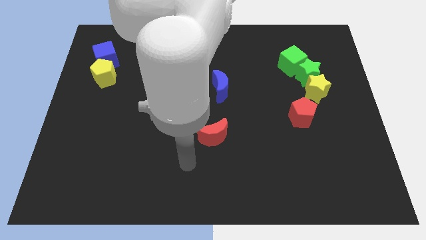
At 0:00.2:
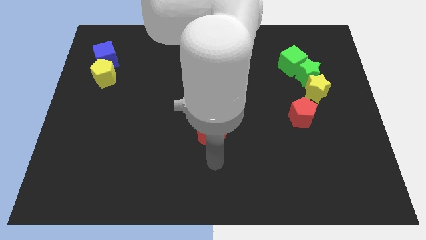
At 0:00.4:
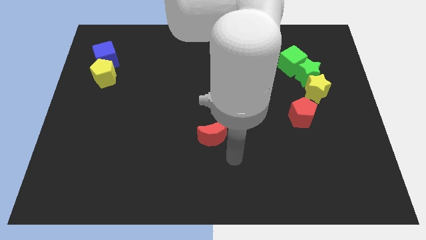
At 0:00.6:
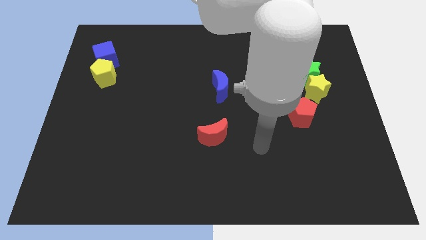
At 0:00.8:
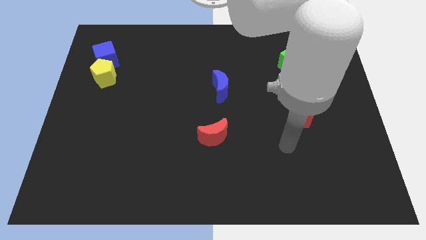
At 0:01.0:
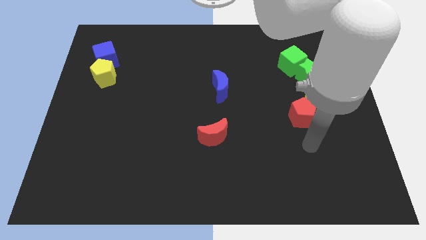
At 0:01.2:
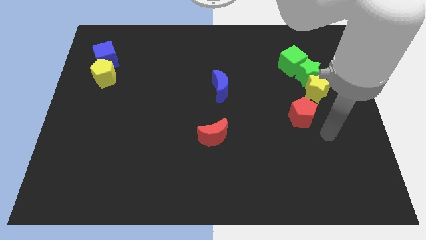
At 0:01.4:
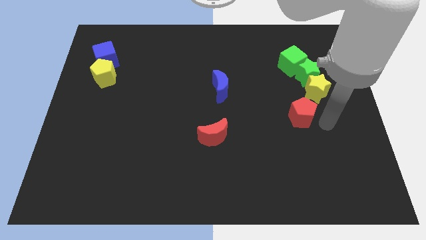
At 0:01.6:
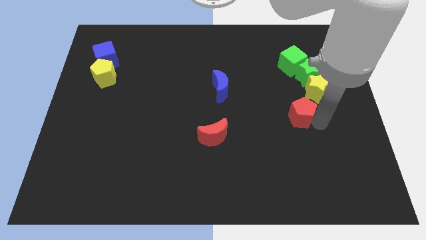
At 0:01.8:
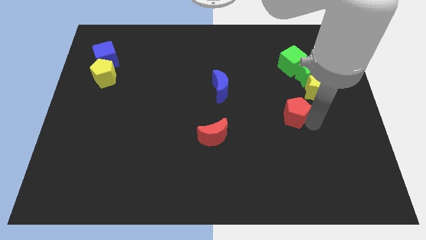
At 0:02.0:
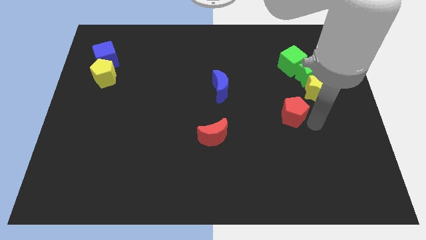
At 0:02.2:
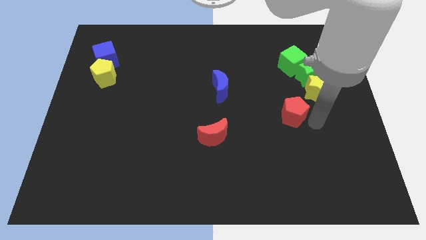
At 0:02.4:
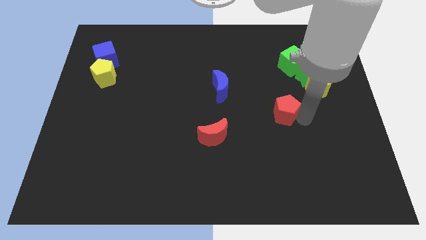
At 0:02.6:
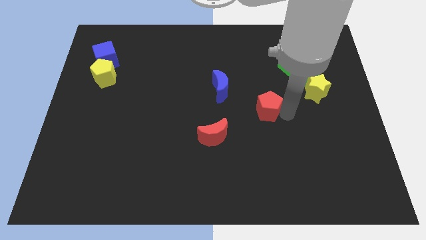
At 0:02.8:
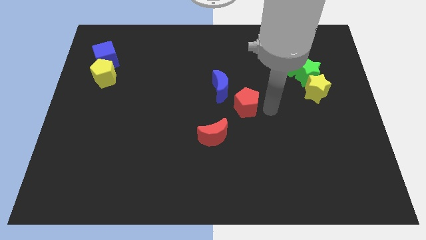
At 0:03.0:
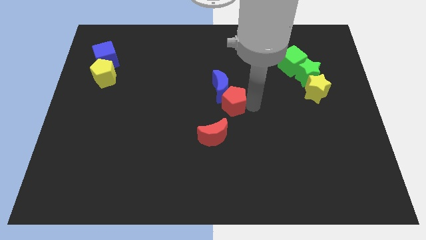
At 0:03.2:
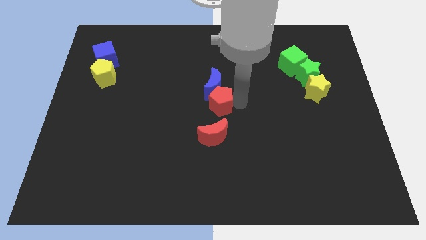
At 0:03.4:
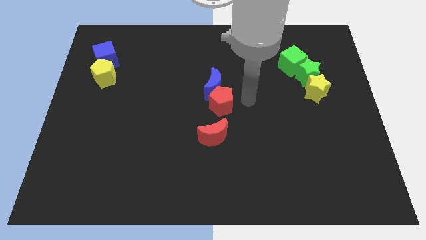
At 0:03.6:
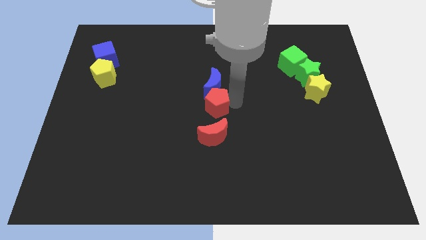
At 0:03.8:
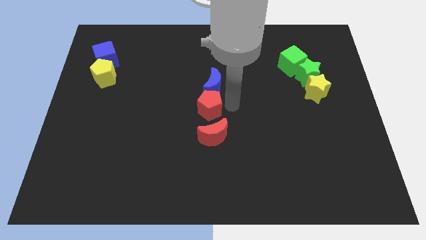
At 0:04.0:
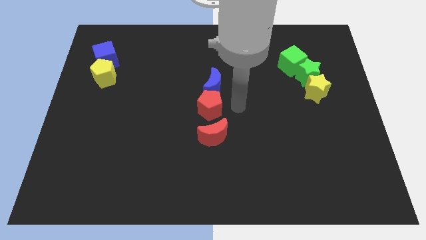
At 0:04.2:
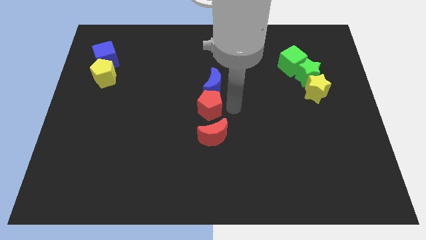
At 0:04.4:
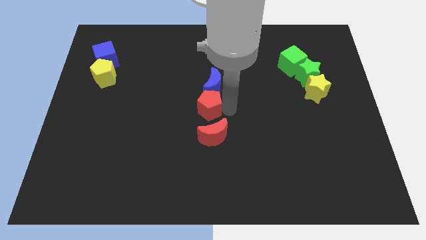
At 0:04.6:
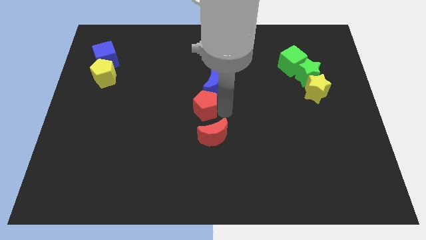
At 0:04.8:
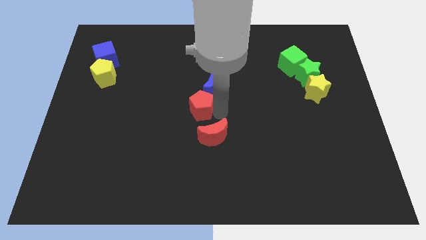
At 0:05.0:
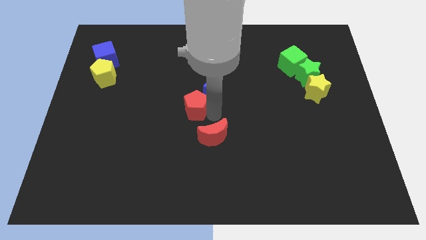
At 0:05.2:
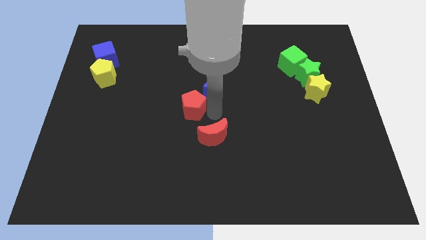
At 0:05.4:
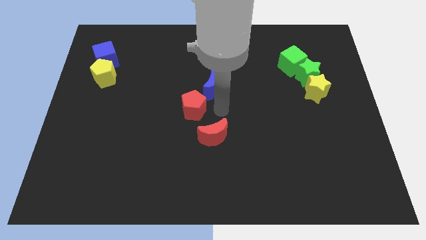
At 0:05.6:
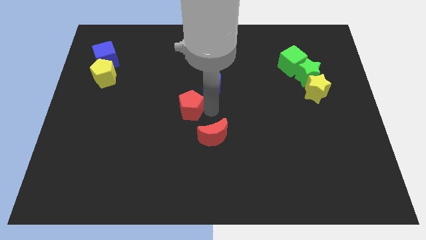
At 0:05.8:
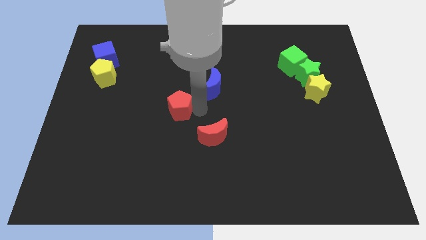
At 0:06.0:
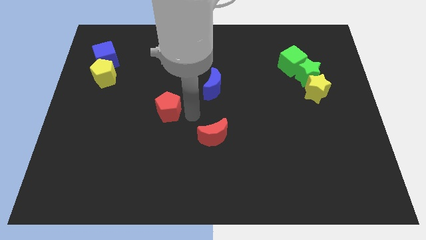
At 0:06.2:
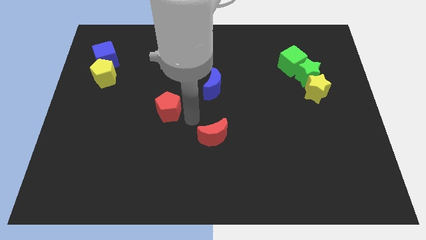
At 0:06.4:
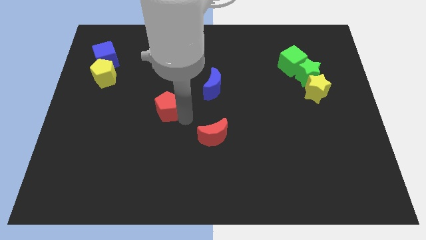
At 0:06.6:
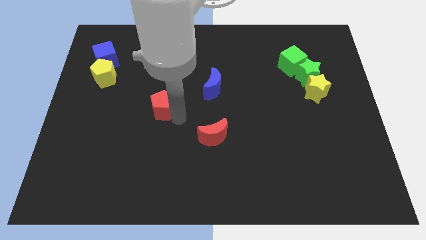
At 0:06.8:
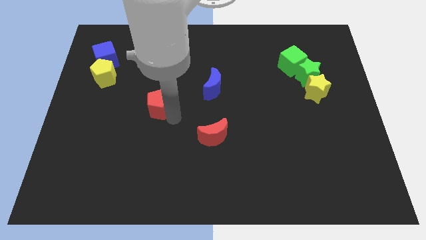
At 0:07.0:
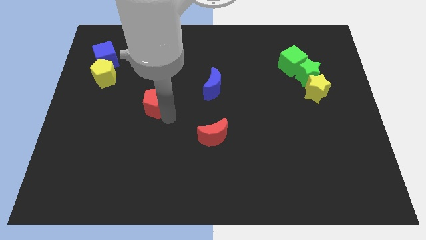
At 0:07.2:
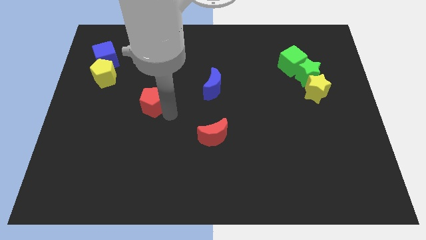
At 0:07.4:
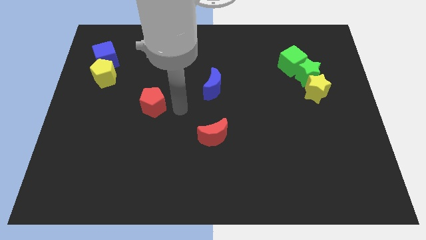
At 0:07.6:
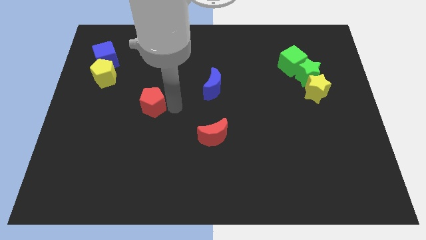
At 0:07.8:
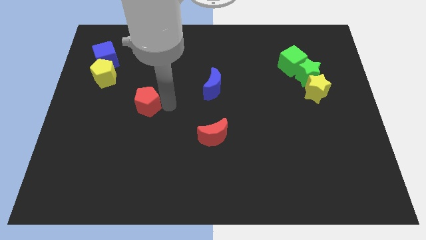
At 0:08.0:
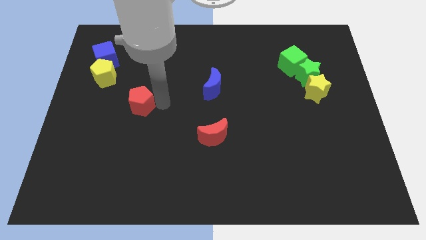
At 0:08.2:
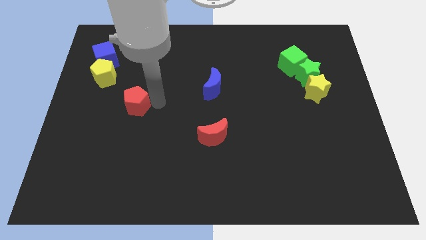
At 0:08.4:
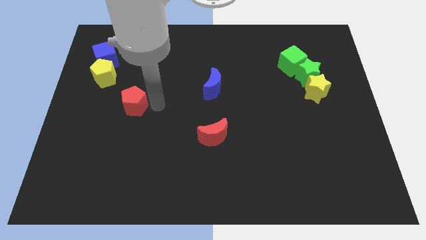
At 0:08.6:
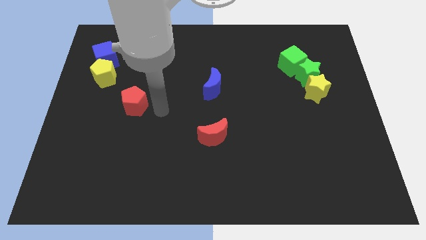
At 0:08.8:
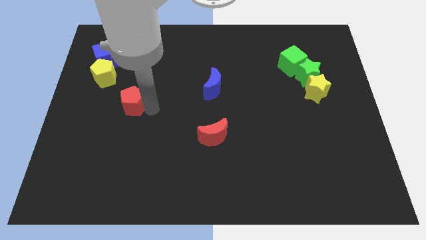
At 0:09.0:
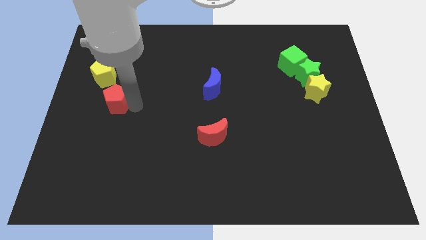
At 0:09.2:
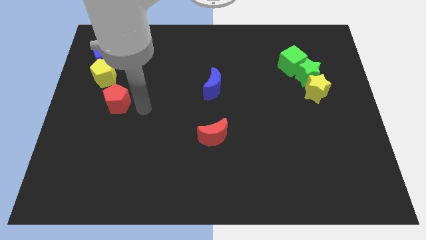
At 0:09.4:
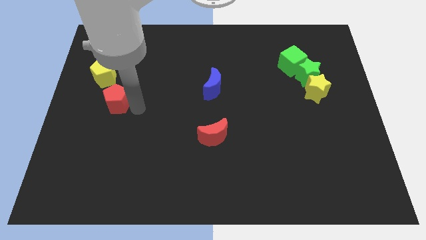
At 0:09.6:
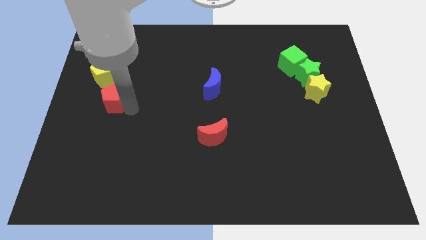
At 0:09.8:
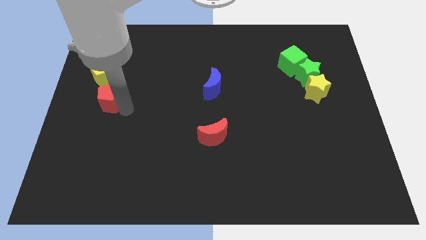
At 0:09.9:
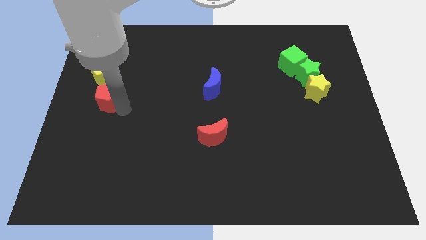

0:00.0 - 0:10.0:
put the red pentagon to the center left
